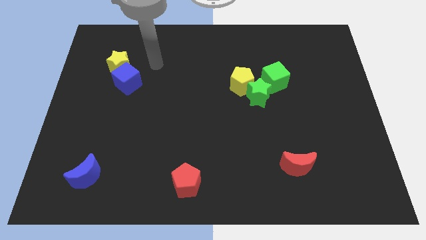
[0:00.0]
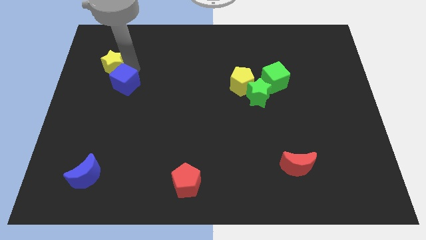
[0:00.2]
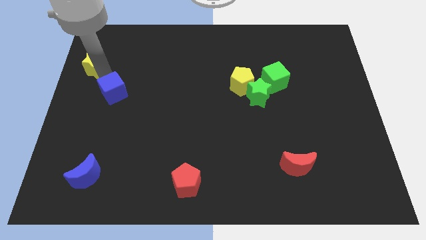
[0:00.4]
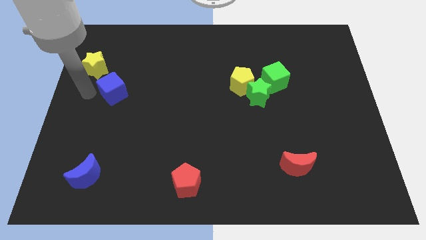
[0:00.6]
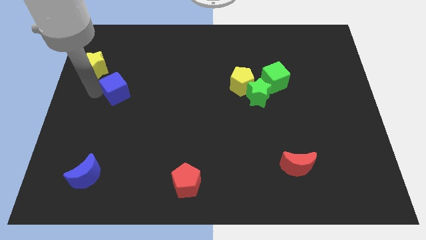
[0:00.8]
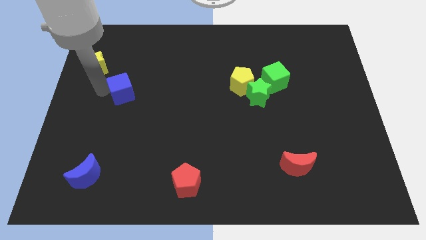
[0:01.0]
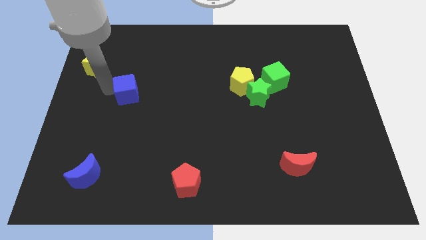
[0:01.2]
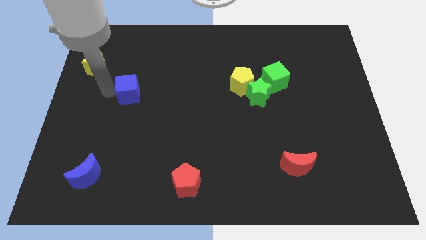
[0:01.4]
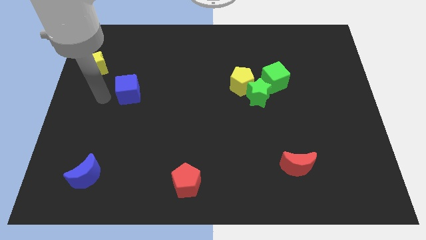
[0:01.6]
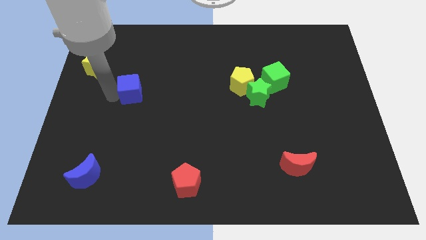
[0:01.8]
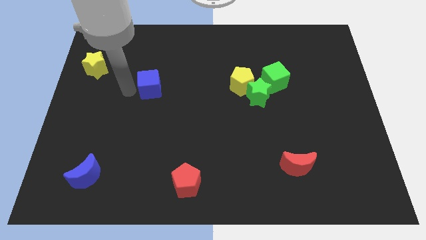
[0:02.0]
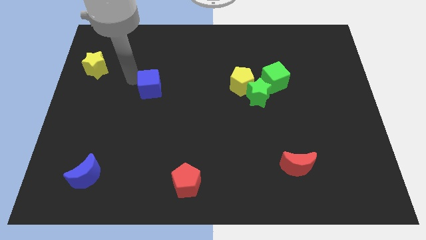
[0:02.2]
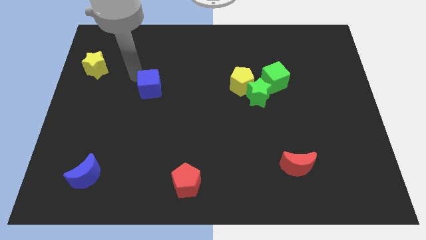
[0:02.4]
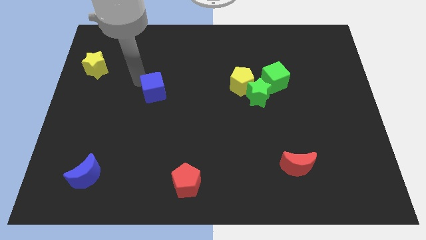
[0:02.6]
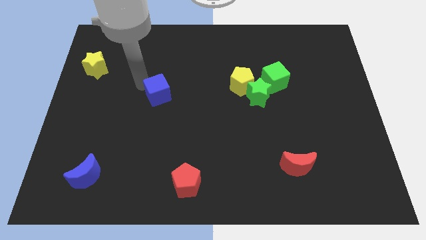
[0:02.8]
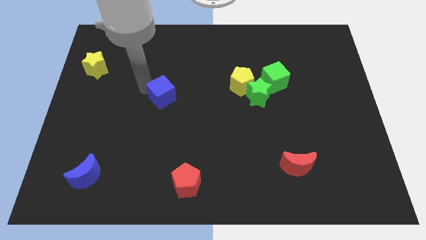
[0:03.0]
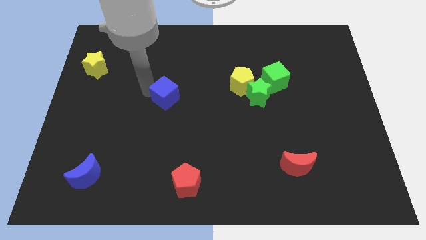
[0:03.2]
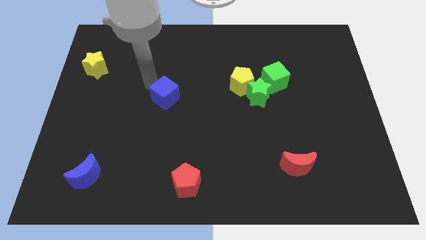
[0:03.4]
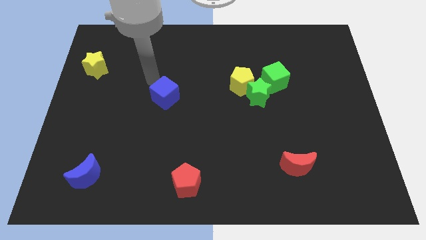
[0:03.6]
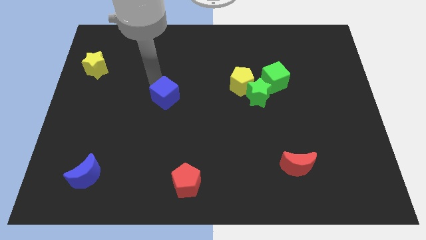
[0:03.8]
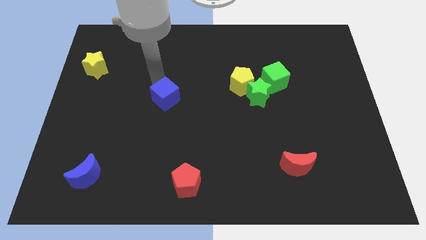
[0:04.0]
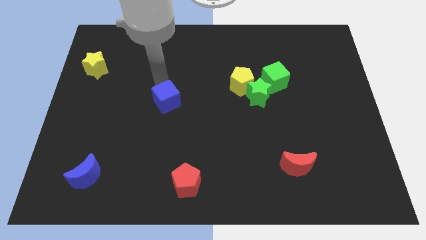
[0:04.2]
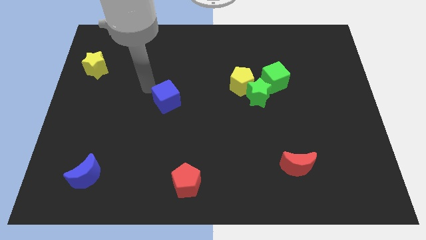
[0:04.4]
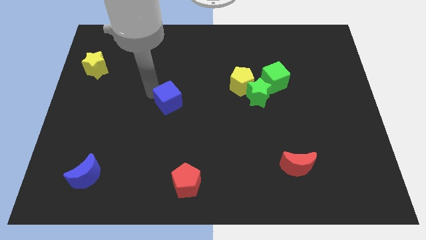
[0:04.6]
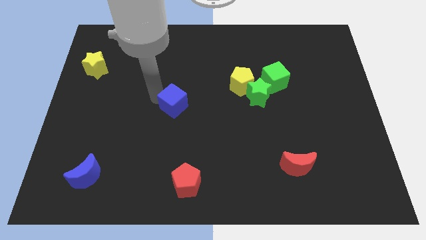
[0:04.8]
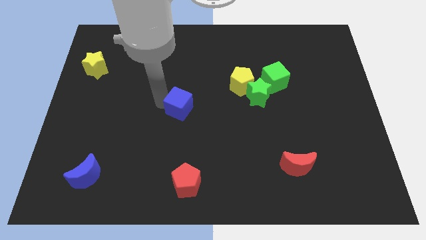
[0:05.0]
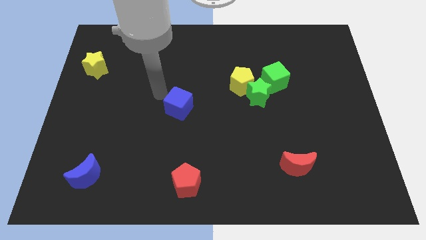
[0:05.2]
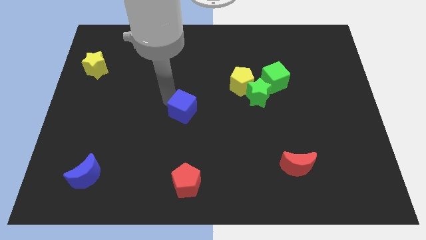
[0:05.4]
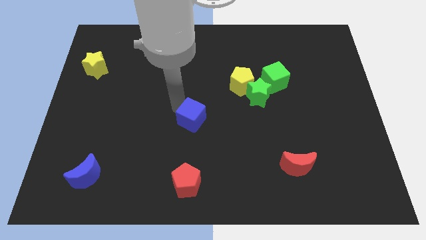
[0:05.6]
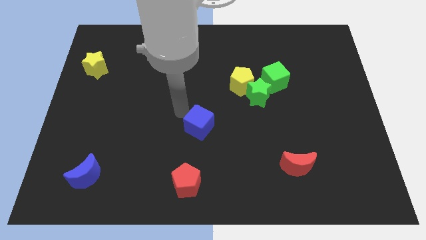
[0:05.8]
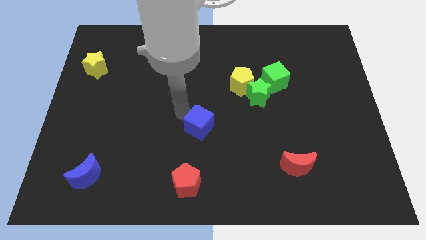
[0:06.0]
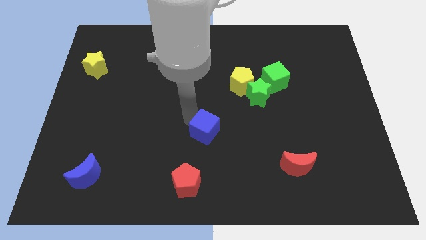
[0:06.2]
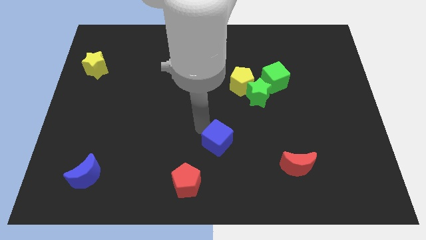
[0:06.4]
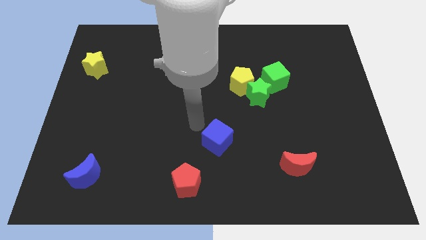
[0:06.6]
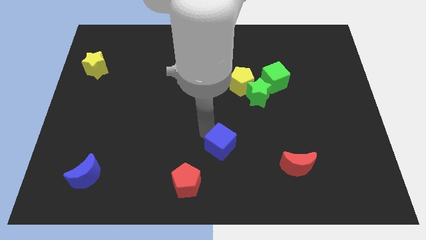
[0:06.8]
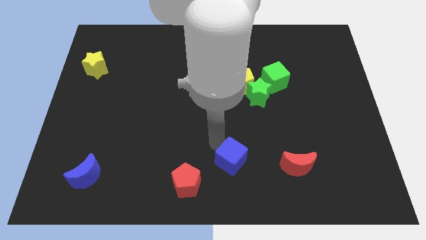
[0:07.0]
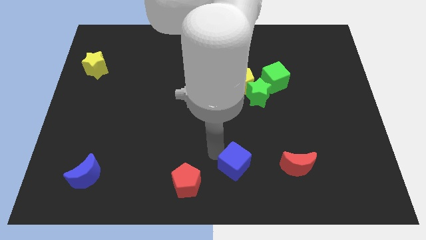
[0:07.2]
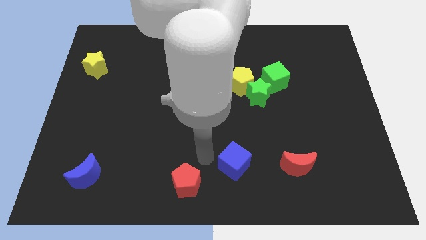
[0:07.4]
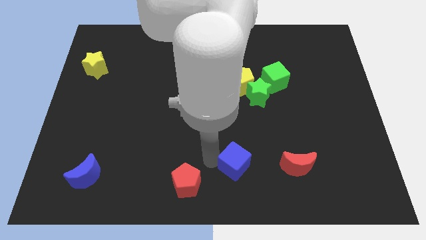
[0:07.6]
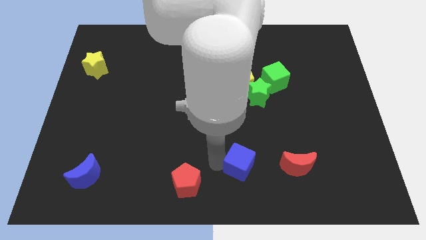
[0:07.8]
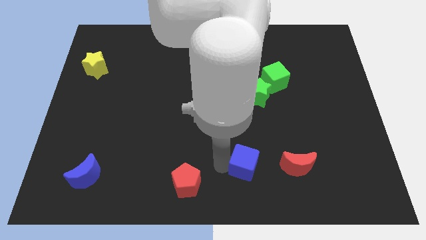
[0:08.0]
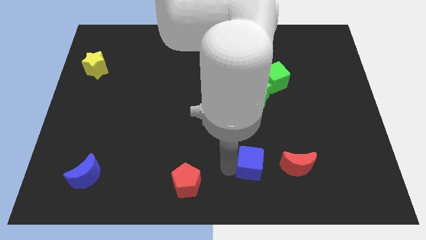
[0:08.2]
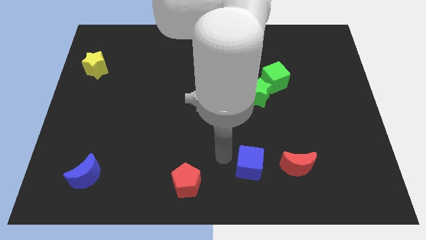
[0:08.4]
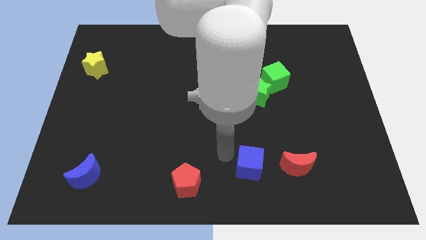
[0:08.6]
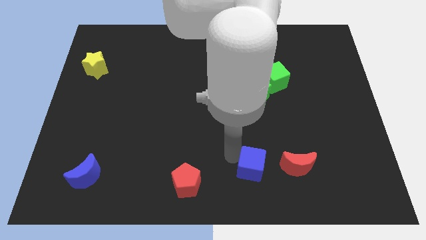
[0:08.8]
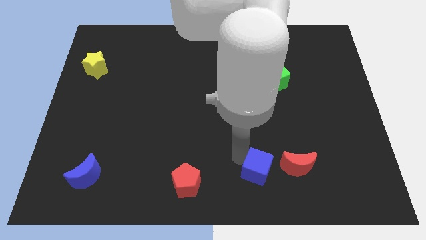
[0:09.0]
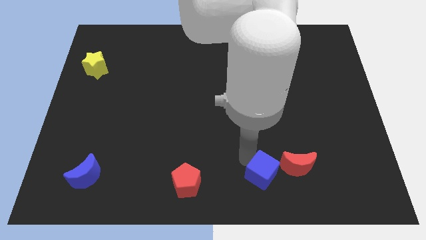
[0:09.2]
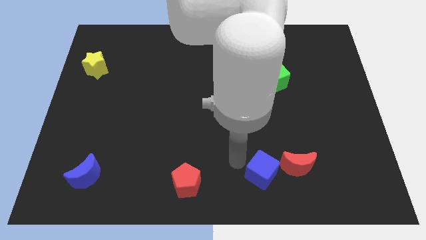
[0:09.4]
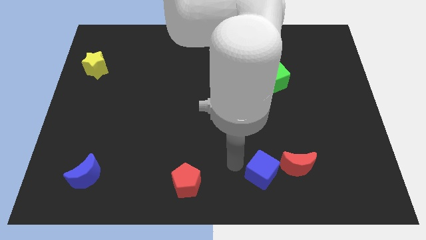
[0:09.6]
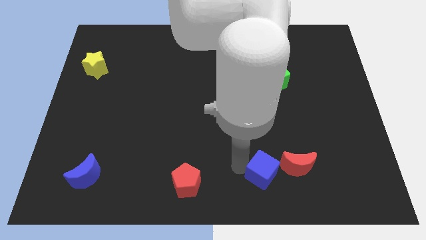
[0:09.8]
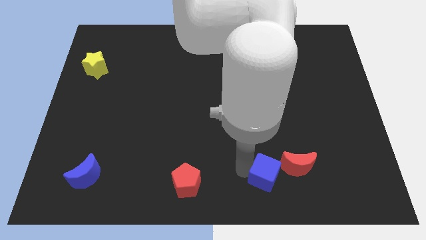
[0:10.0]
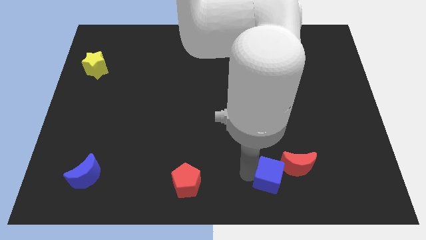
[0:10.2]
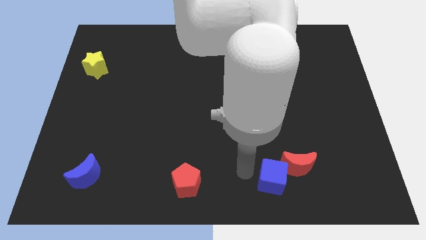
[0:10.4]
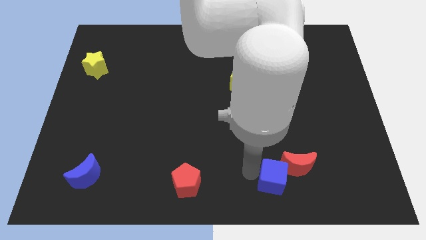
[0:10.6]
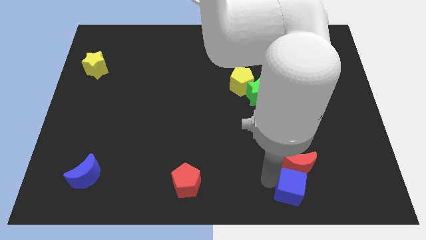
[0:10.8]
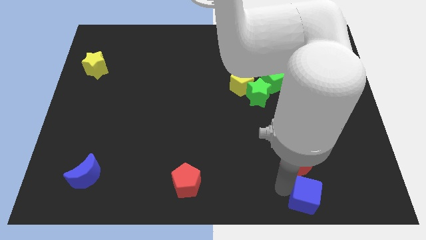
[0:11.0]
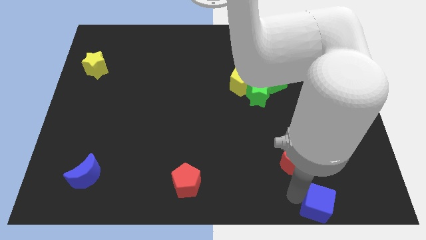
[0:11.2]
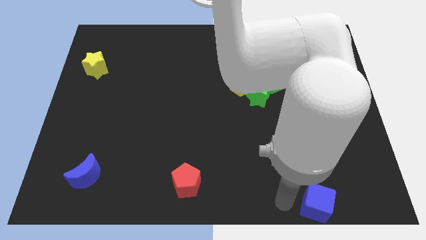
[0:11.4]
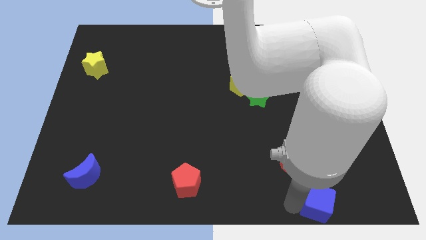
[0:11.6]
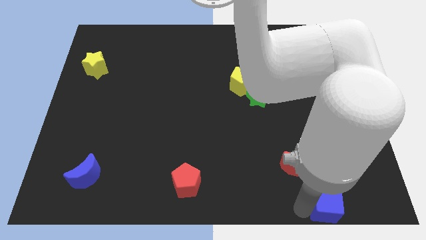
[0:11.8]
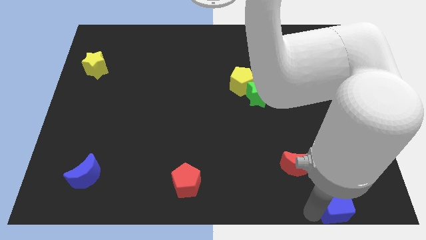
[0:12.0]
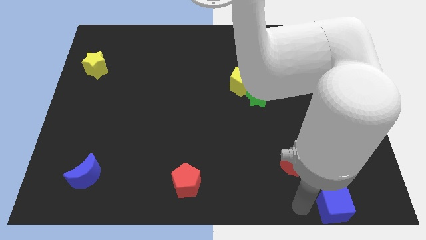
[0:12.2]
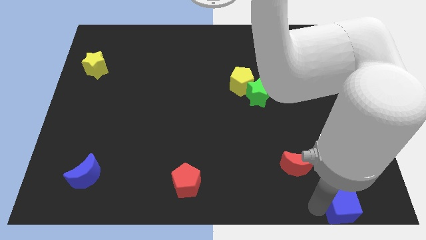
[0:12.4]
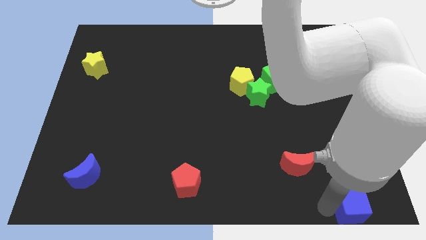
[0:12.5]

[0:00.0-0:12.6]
put the blue cube to the bottom right
